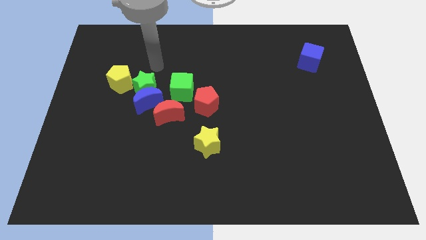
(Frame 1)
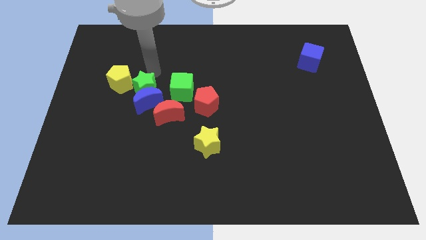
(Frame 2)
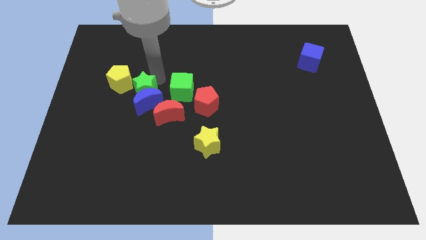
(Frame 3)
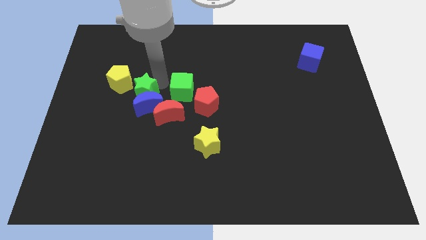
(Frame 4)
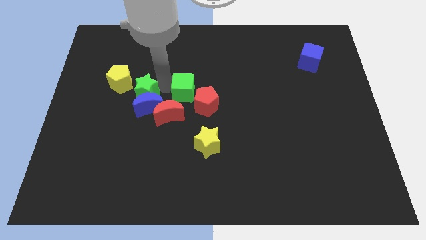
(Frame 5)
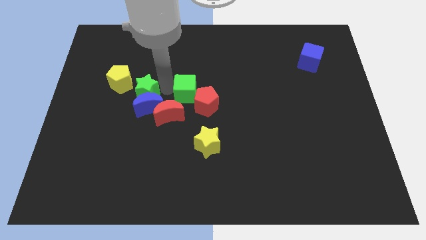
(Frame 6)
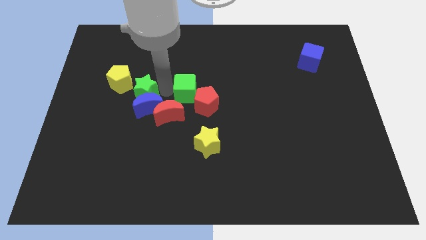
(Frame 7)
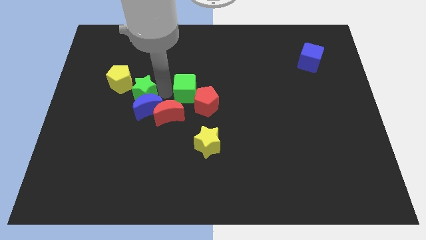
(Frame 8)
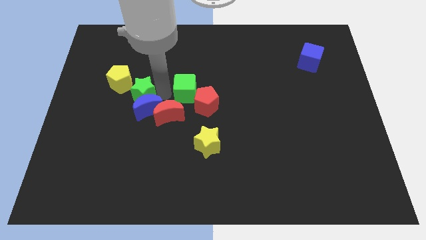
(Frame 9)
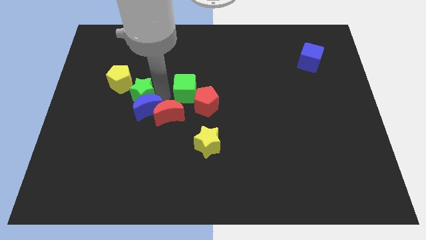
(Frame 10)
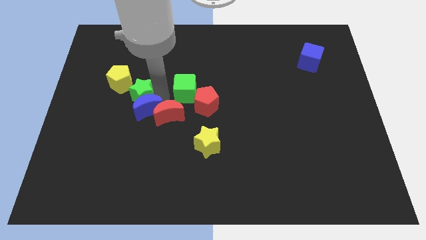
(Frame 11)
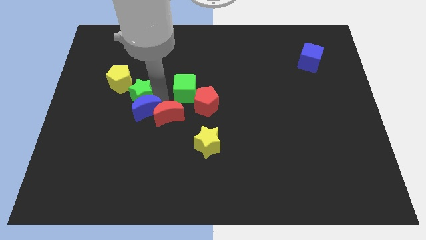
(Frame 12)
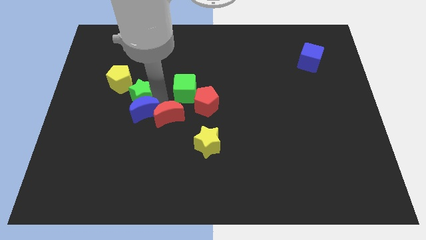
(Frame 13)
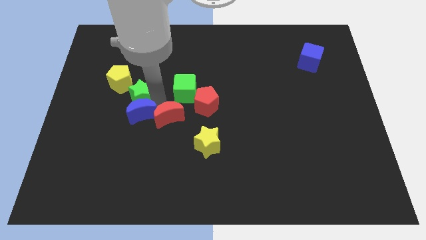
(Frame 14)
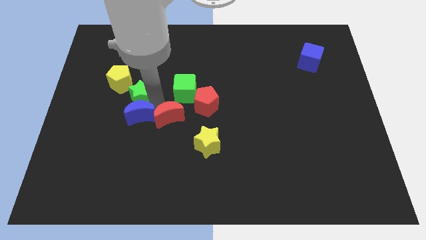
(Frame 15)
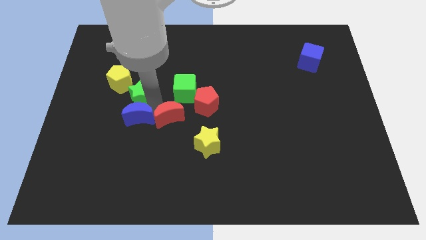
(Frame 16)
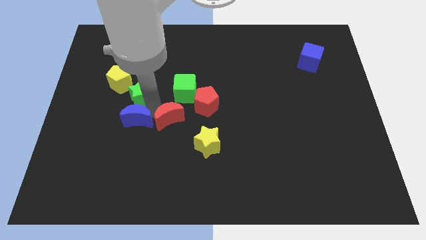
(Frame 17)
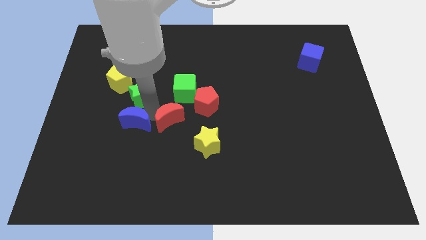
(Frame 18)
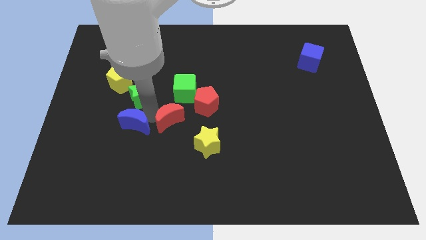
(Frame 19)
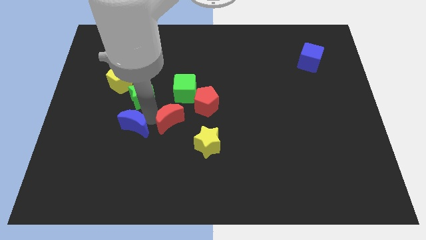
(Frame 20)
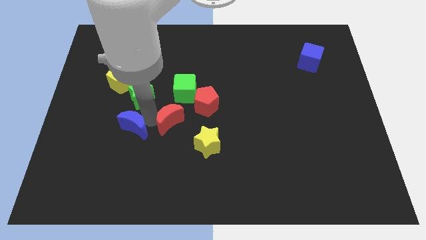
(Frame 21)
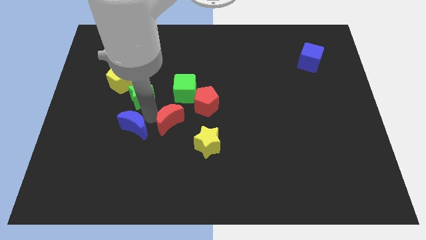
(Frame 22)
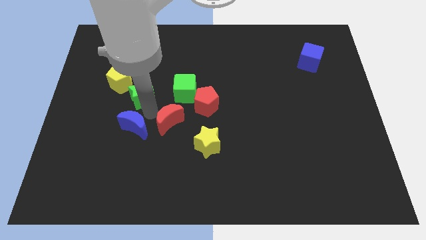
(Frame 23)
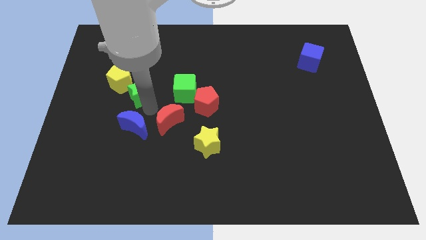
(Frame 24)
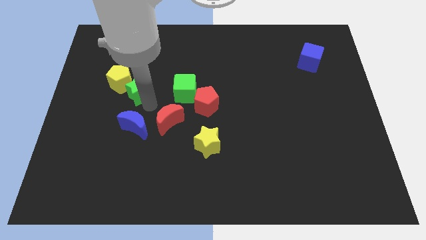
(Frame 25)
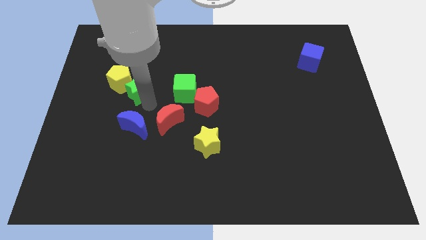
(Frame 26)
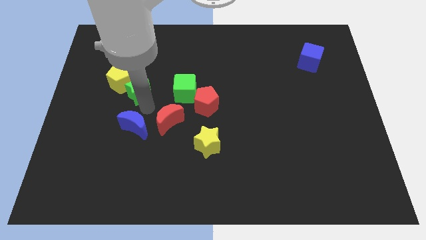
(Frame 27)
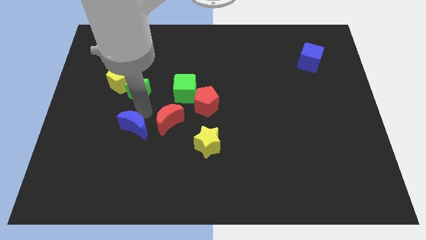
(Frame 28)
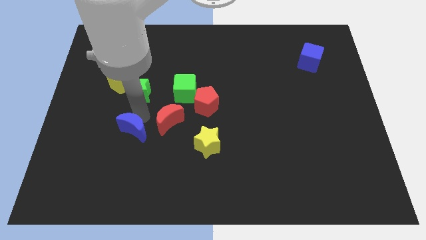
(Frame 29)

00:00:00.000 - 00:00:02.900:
pull the blue moon apart from the clump

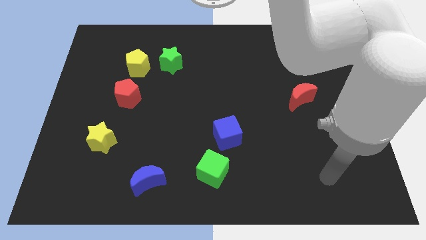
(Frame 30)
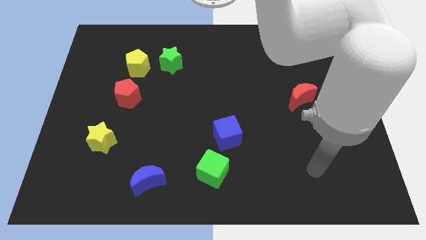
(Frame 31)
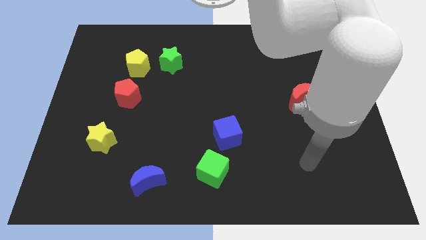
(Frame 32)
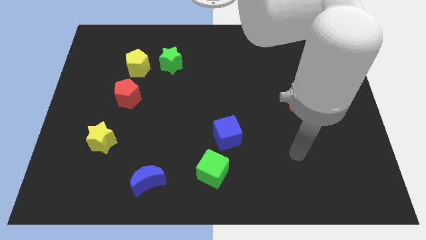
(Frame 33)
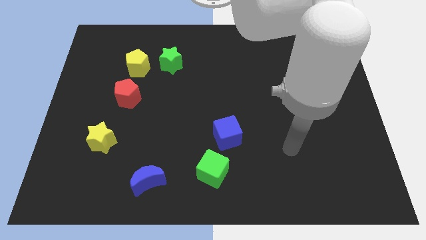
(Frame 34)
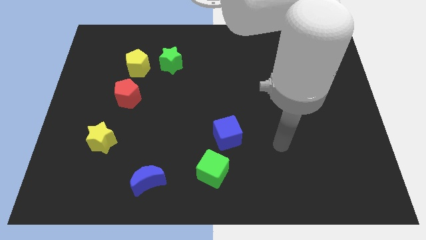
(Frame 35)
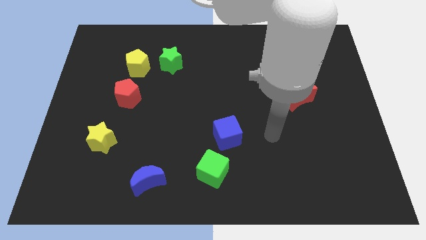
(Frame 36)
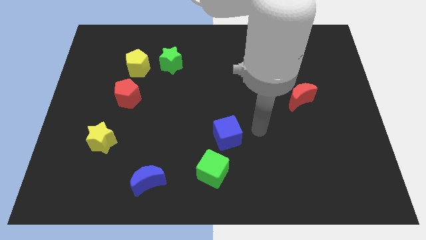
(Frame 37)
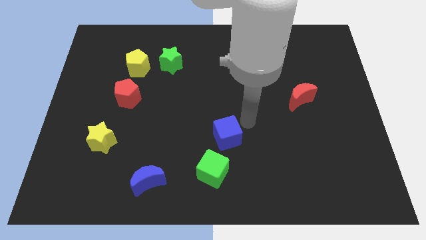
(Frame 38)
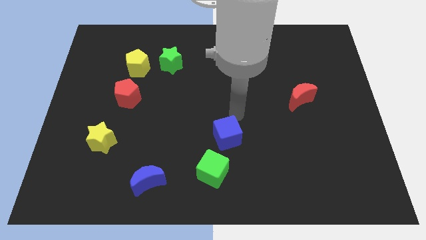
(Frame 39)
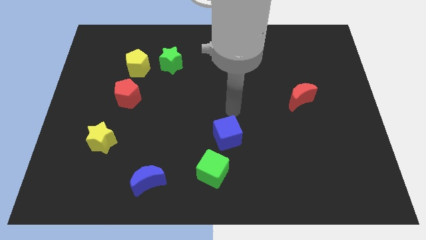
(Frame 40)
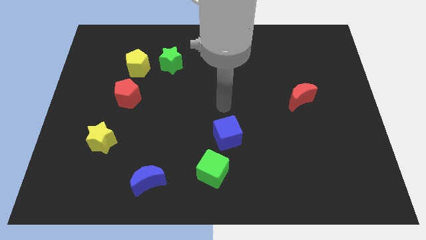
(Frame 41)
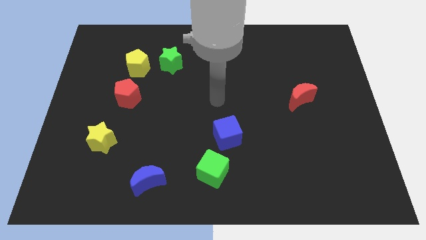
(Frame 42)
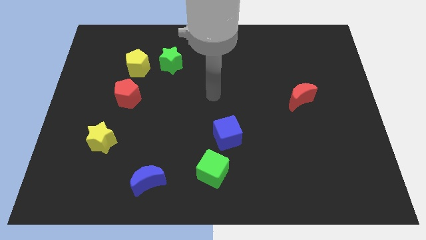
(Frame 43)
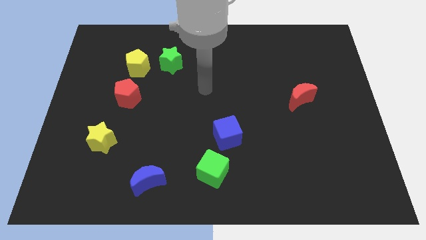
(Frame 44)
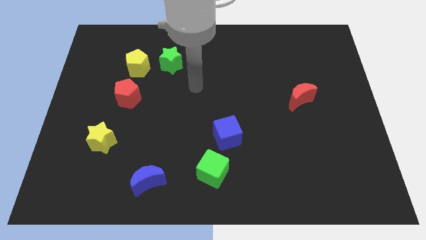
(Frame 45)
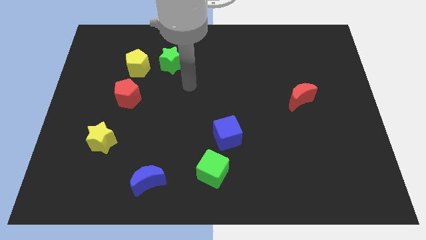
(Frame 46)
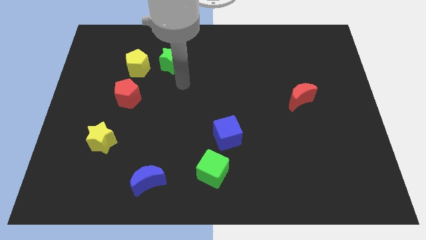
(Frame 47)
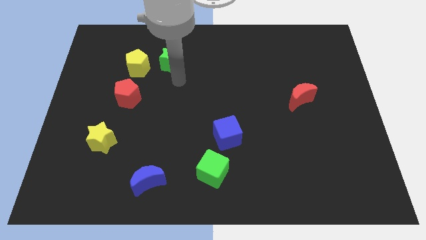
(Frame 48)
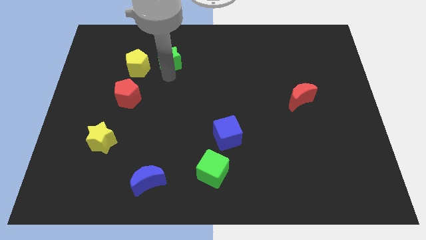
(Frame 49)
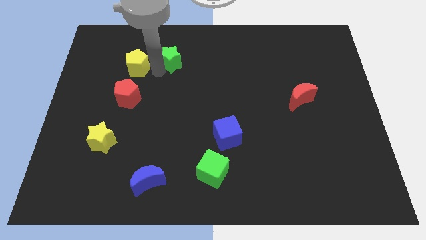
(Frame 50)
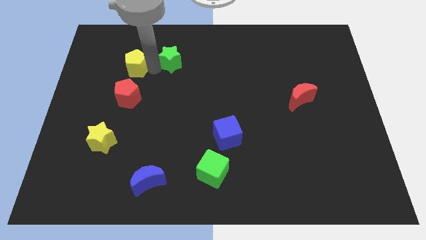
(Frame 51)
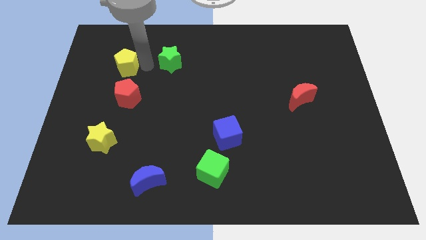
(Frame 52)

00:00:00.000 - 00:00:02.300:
move the green star away from the yellow pentagon

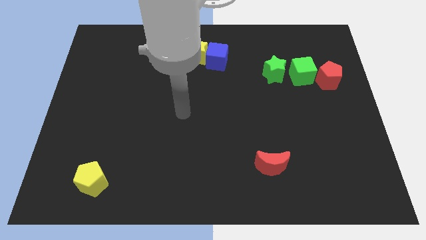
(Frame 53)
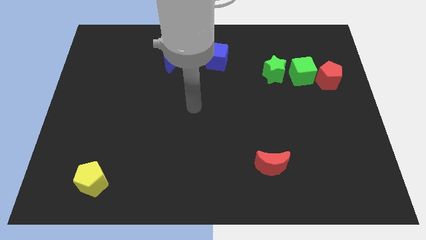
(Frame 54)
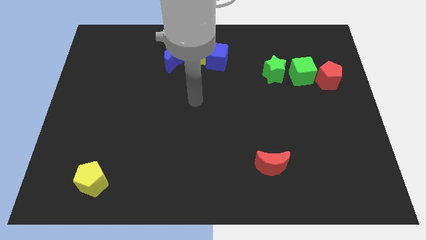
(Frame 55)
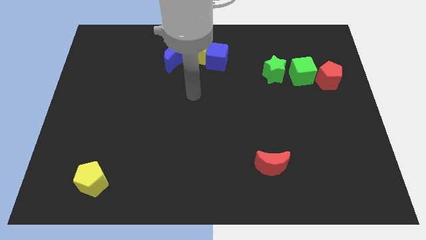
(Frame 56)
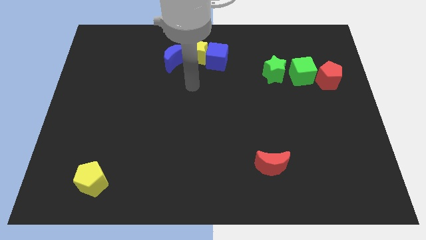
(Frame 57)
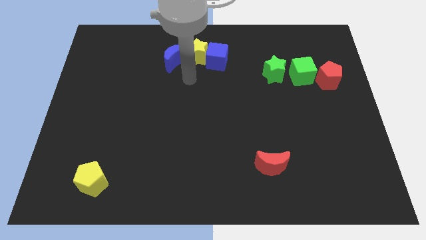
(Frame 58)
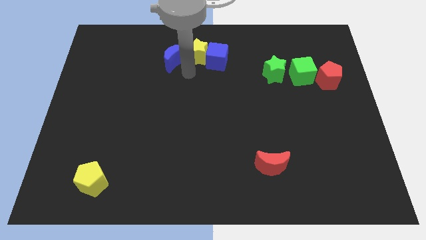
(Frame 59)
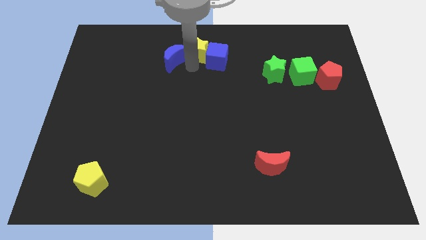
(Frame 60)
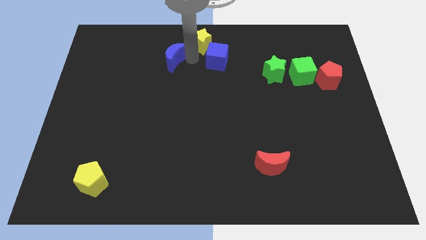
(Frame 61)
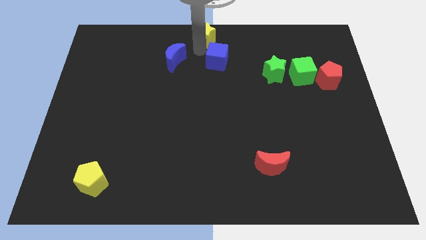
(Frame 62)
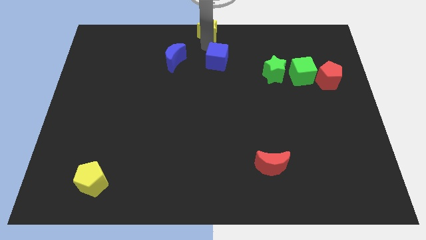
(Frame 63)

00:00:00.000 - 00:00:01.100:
move the blue cube away from the yellow star

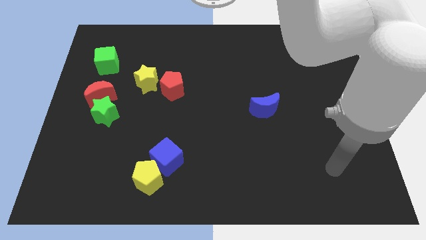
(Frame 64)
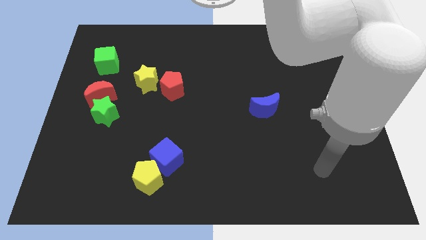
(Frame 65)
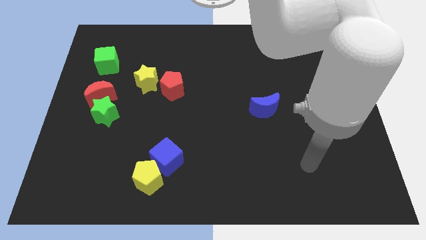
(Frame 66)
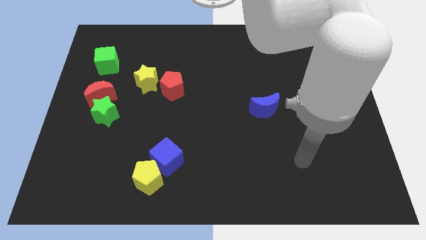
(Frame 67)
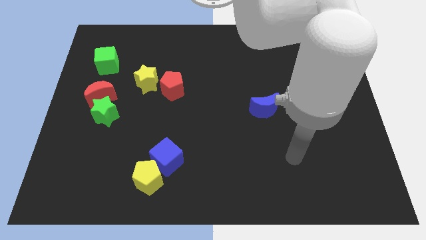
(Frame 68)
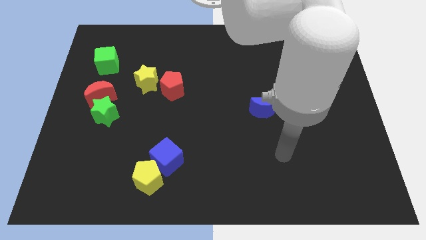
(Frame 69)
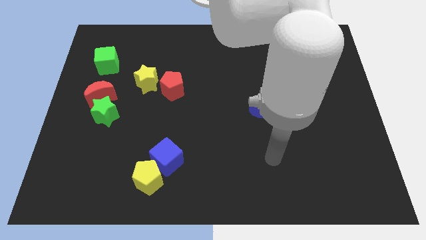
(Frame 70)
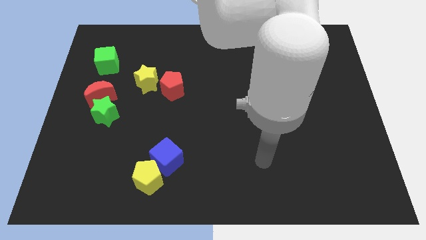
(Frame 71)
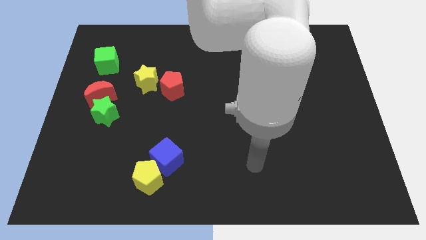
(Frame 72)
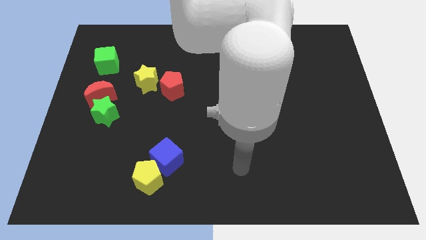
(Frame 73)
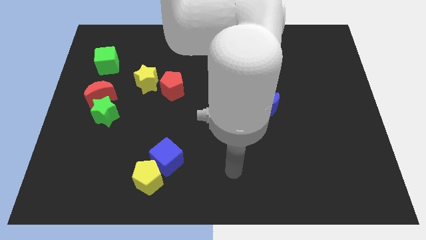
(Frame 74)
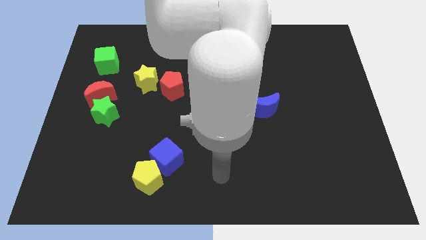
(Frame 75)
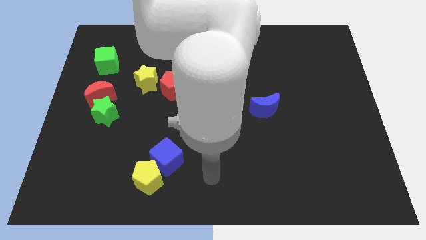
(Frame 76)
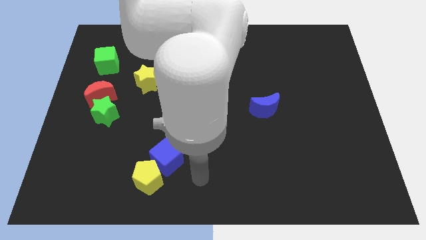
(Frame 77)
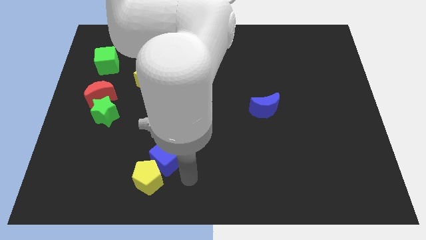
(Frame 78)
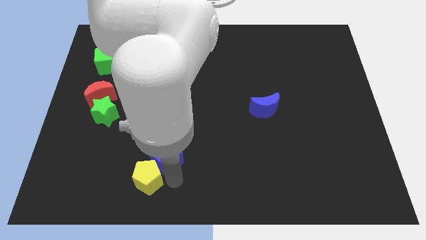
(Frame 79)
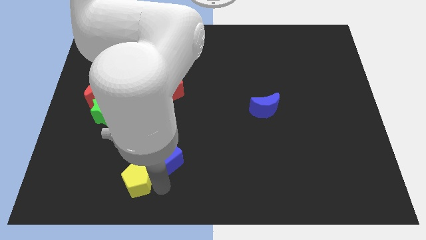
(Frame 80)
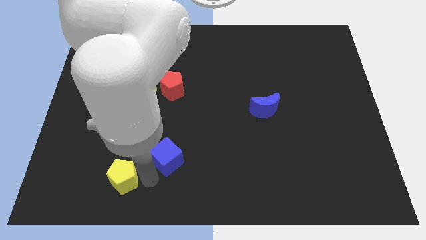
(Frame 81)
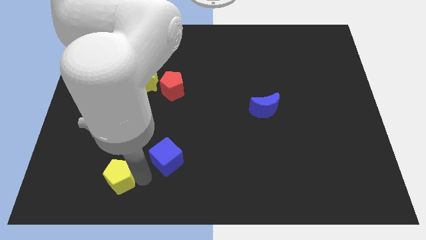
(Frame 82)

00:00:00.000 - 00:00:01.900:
separate the blue cube from the yellow pentagon

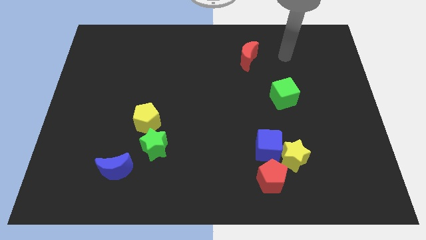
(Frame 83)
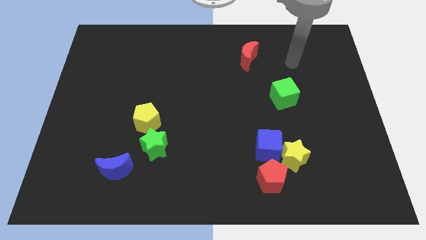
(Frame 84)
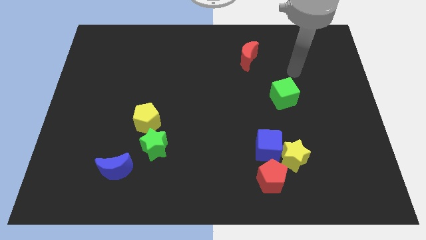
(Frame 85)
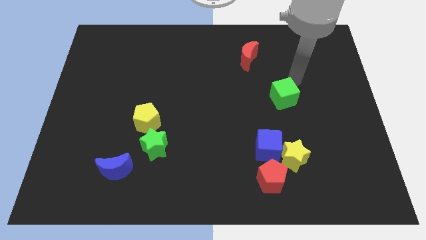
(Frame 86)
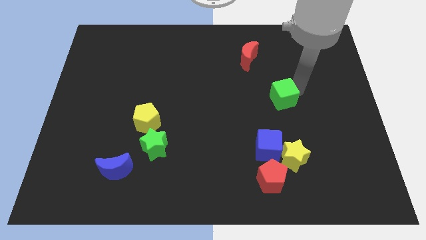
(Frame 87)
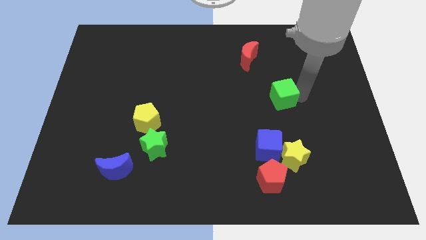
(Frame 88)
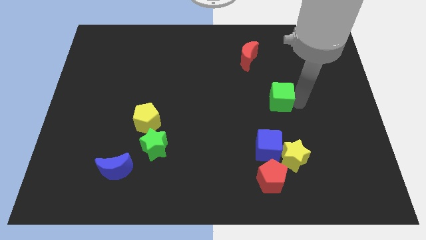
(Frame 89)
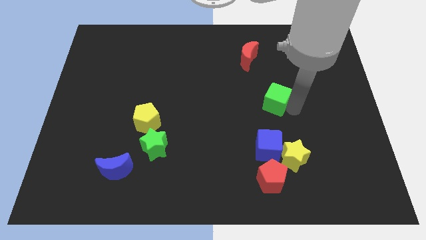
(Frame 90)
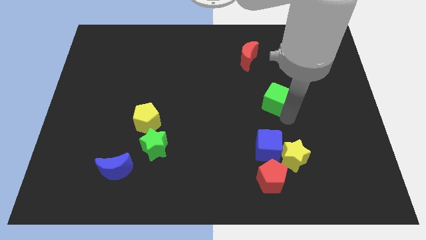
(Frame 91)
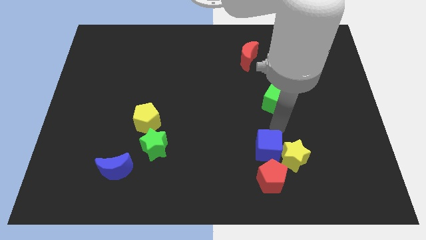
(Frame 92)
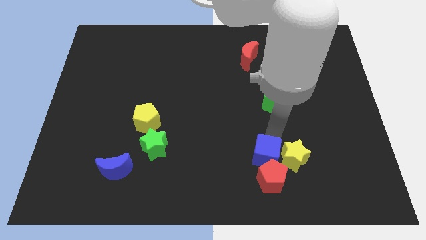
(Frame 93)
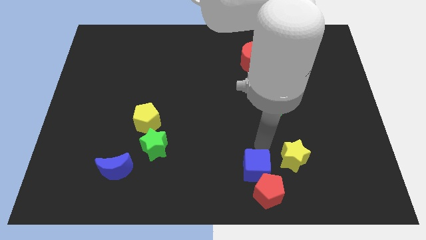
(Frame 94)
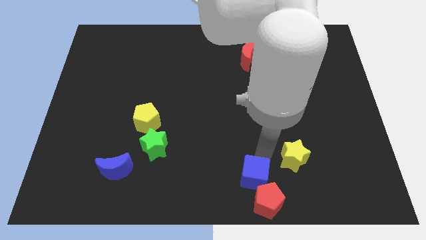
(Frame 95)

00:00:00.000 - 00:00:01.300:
move the yellow star away from the blue cube and red pentagon
